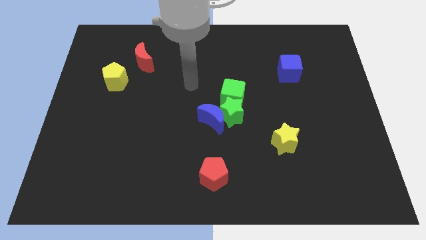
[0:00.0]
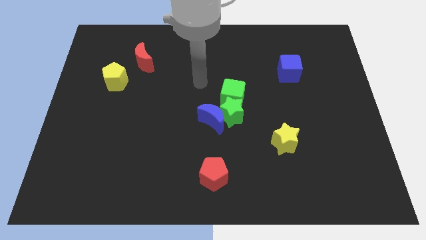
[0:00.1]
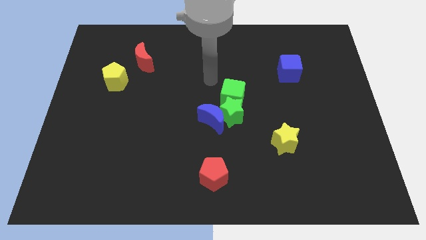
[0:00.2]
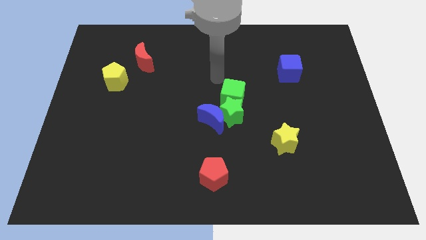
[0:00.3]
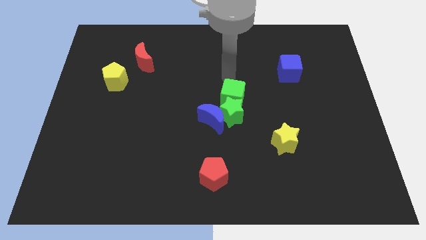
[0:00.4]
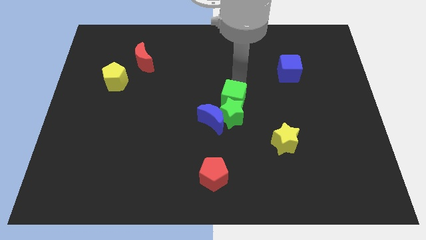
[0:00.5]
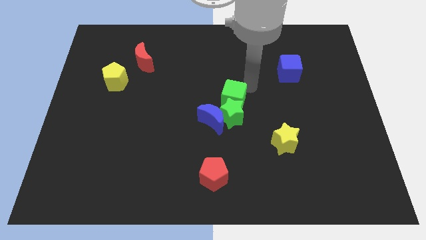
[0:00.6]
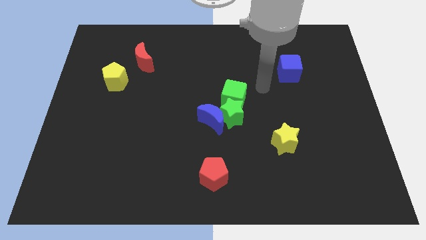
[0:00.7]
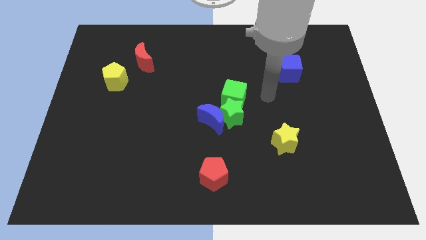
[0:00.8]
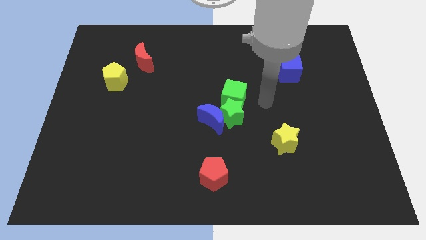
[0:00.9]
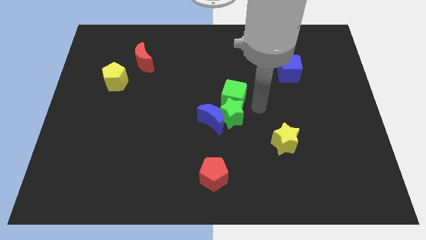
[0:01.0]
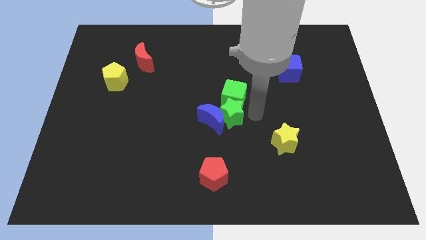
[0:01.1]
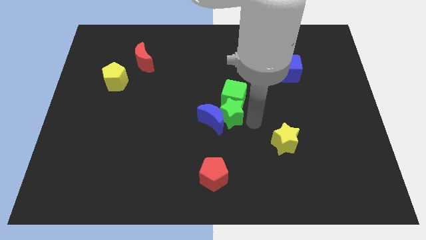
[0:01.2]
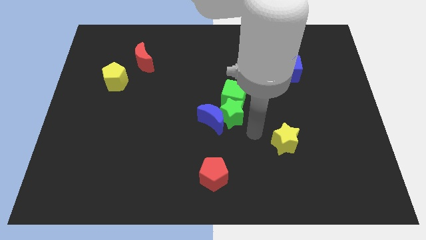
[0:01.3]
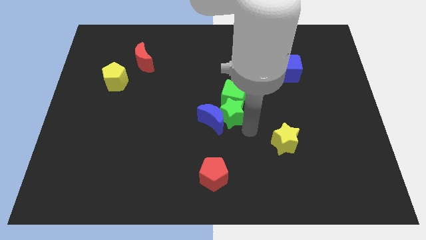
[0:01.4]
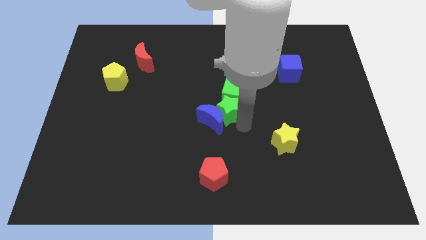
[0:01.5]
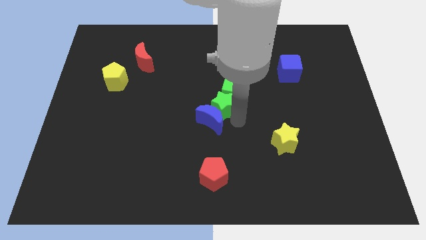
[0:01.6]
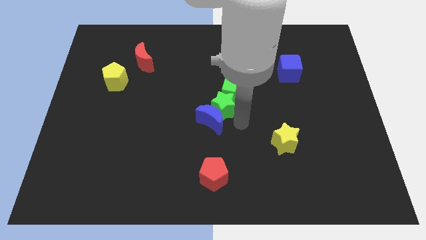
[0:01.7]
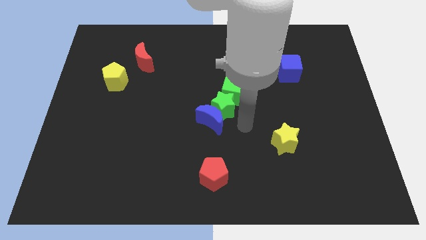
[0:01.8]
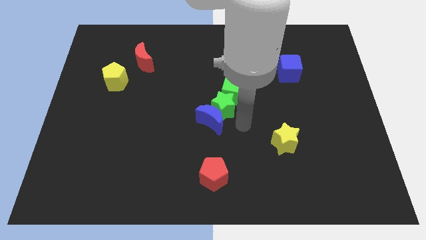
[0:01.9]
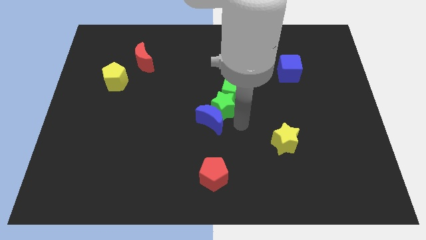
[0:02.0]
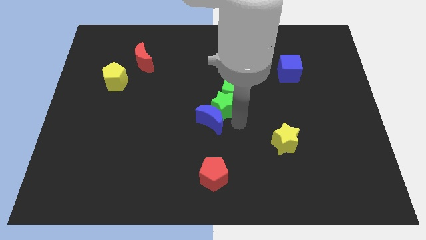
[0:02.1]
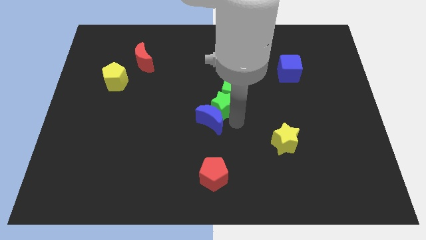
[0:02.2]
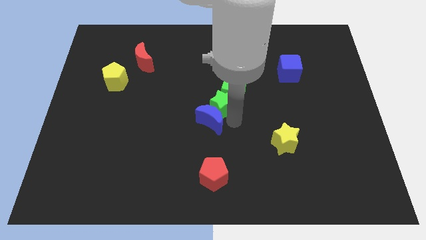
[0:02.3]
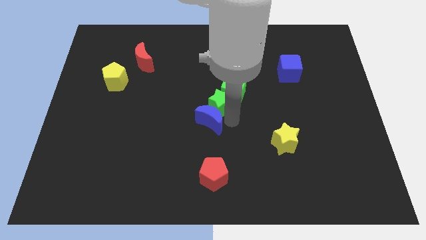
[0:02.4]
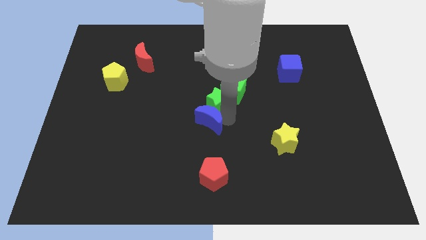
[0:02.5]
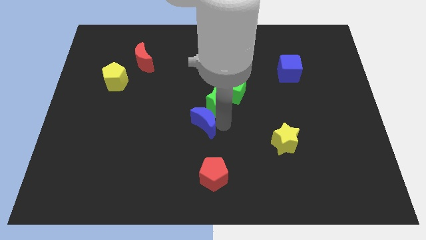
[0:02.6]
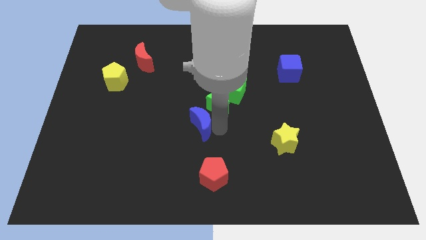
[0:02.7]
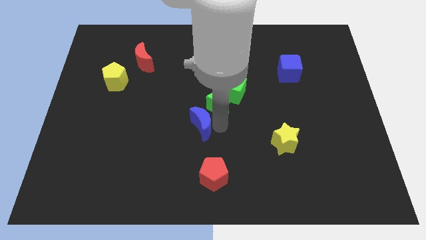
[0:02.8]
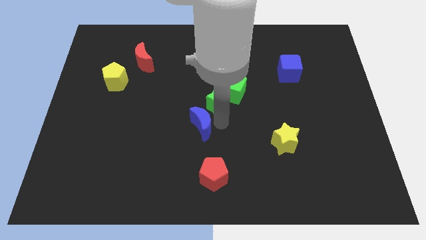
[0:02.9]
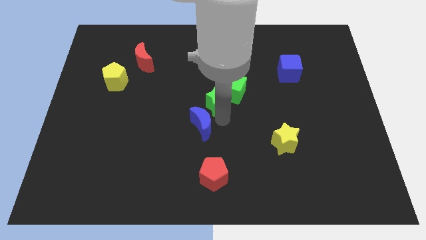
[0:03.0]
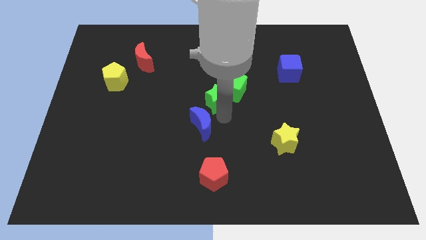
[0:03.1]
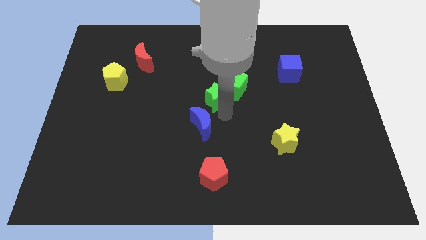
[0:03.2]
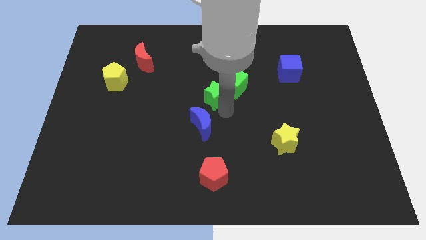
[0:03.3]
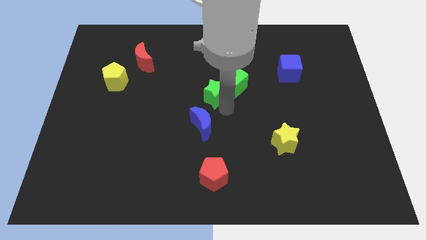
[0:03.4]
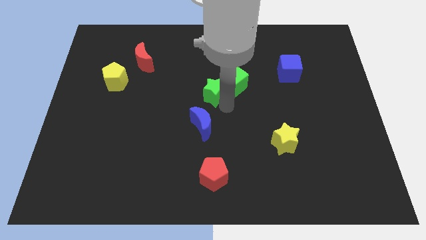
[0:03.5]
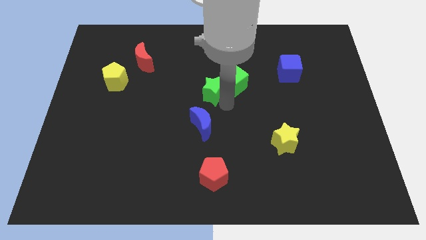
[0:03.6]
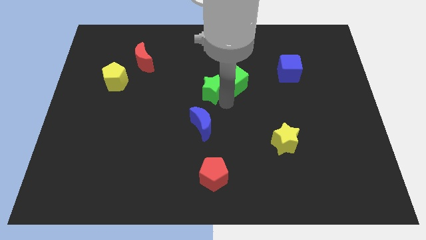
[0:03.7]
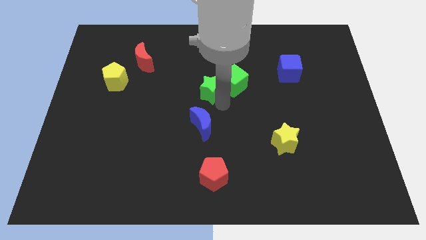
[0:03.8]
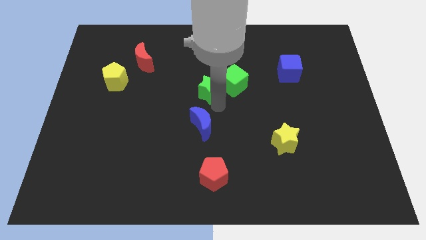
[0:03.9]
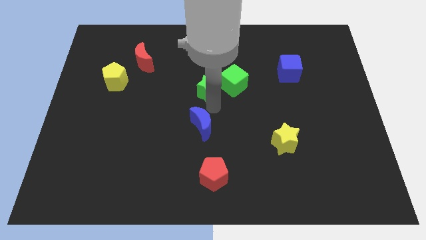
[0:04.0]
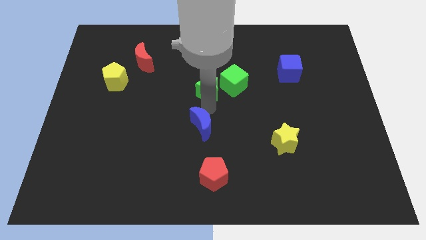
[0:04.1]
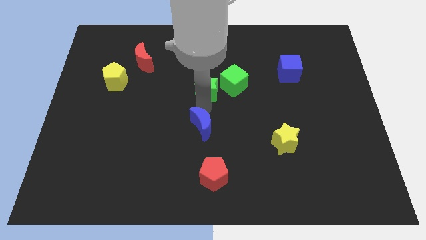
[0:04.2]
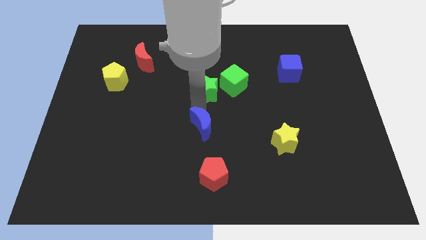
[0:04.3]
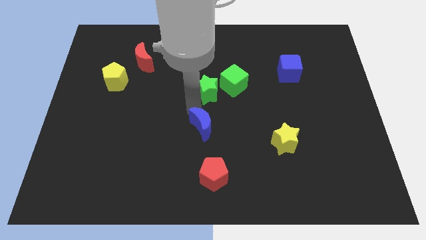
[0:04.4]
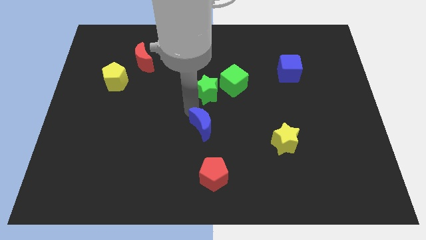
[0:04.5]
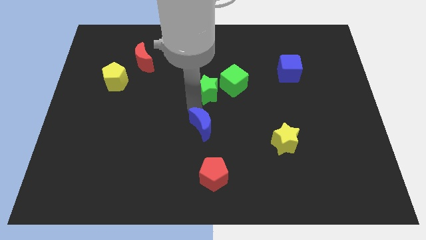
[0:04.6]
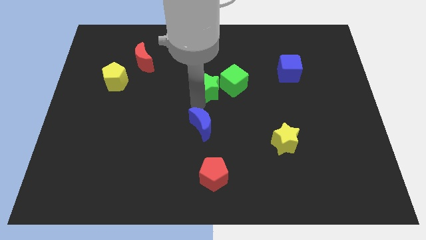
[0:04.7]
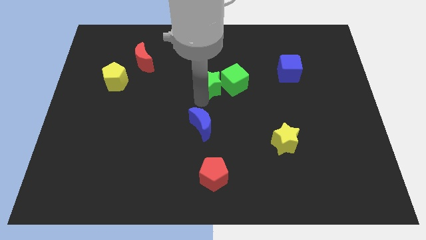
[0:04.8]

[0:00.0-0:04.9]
move the green star upwards a bit

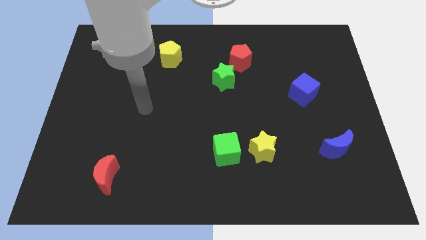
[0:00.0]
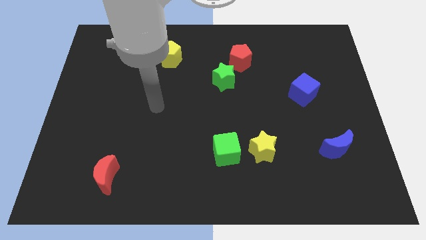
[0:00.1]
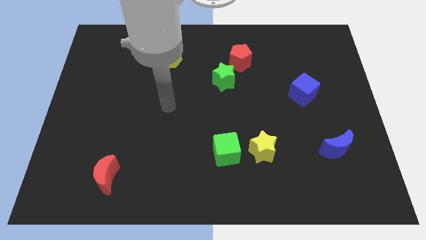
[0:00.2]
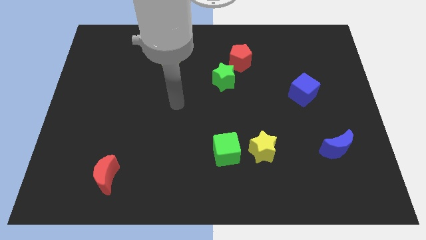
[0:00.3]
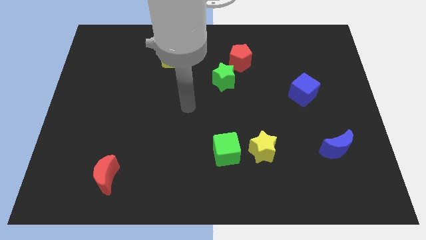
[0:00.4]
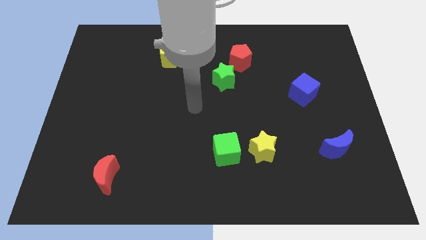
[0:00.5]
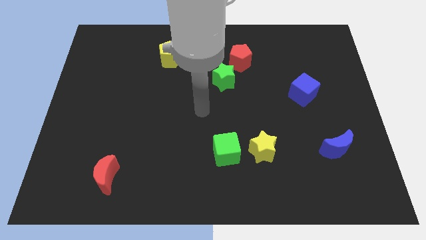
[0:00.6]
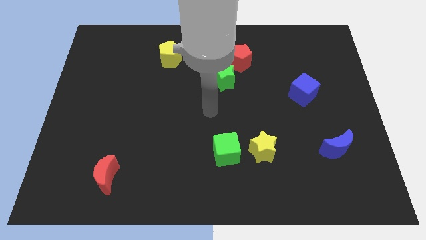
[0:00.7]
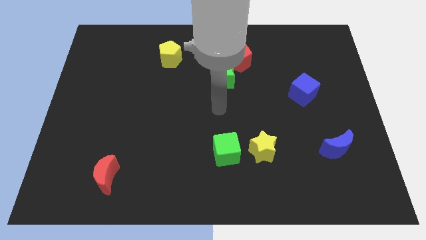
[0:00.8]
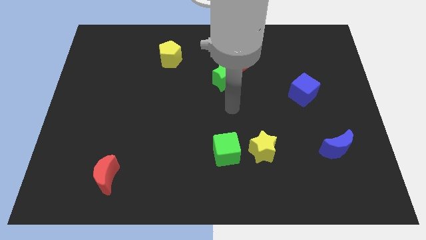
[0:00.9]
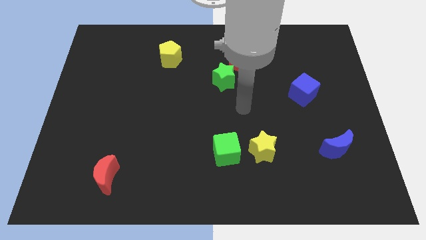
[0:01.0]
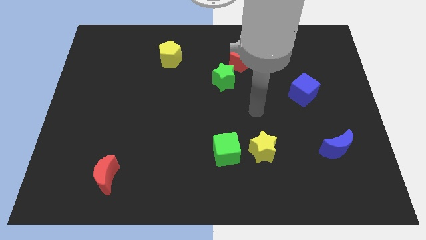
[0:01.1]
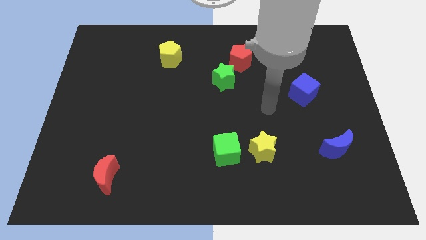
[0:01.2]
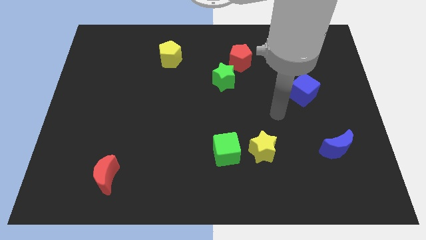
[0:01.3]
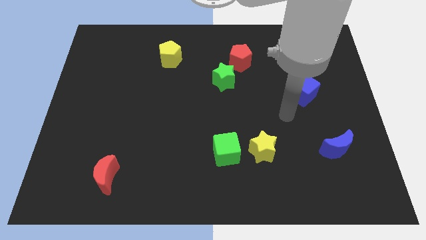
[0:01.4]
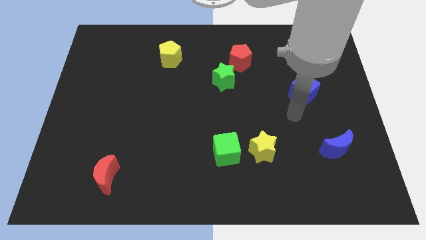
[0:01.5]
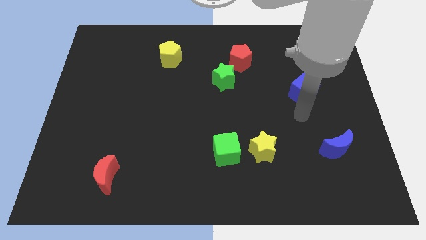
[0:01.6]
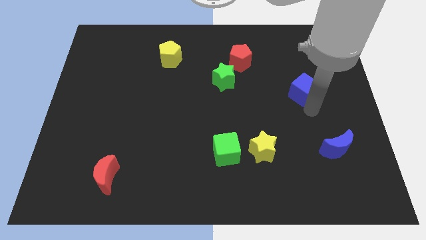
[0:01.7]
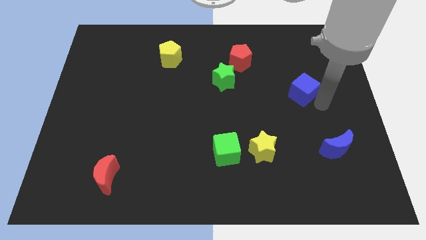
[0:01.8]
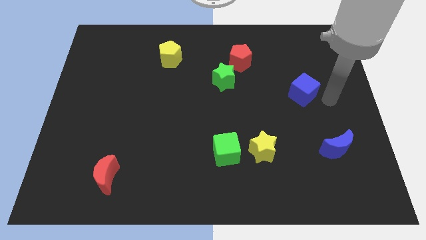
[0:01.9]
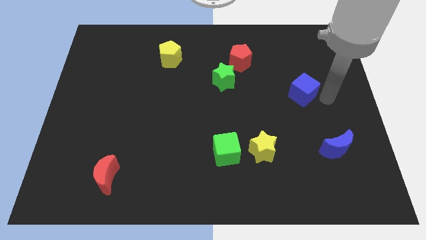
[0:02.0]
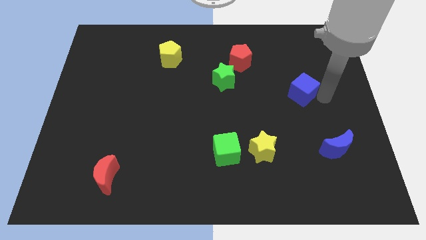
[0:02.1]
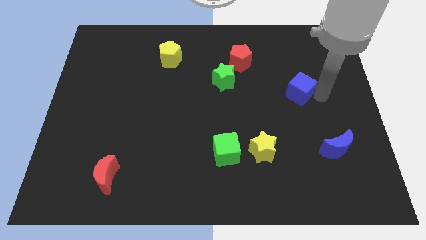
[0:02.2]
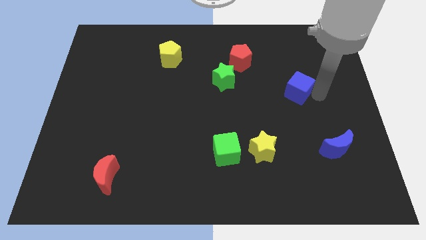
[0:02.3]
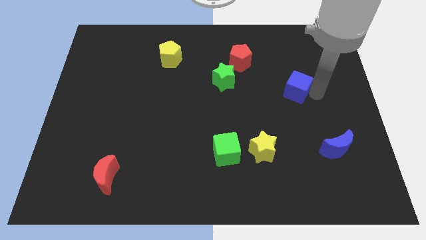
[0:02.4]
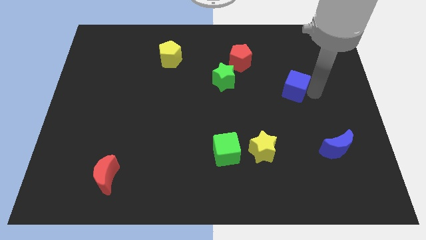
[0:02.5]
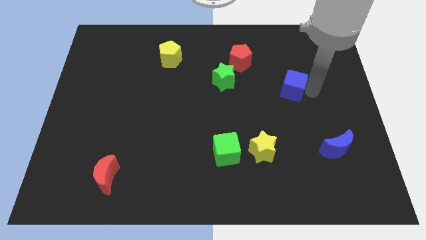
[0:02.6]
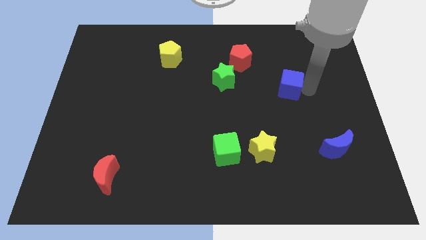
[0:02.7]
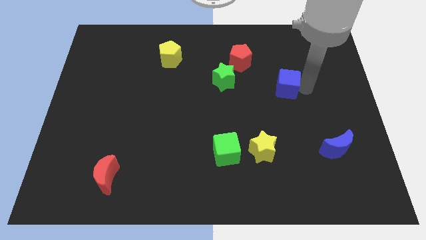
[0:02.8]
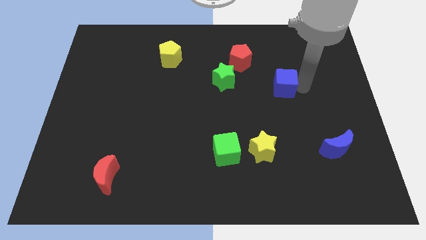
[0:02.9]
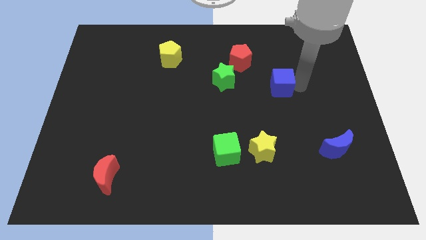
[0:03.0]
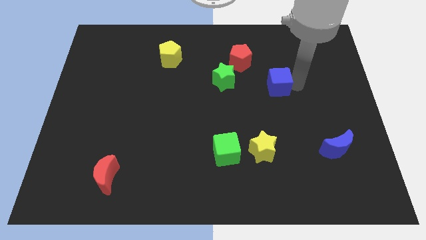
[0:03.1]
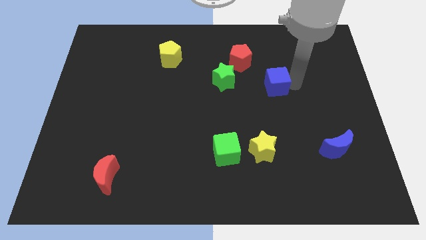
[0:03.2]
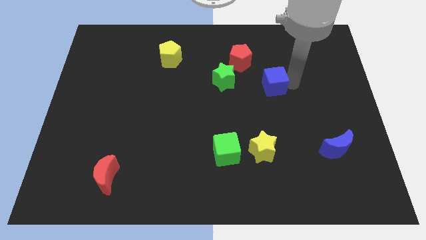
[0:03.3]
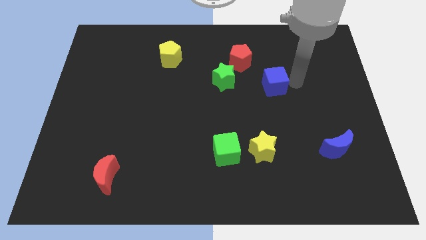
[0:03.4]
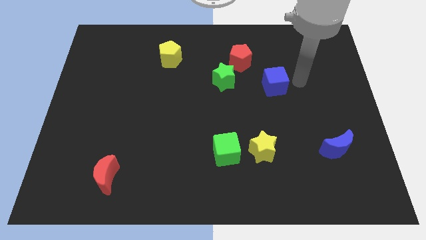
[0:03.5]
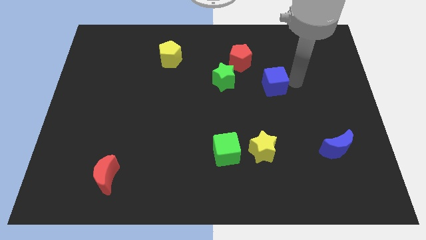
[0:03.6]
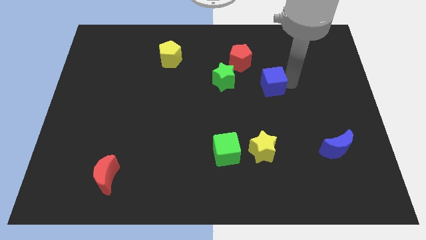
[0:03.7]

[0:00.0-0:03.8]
slide the blue cube to the left somewhat
